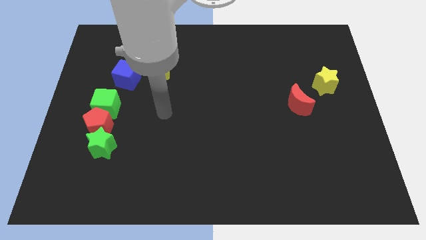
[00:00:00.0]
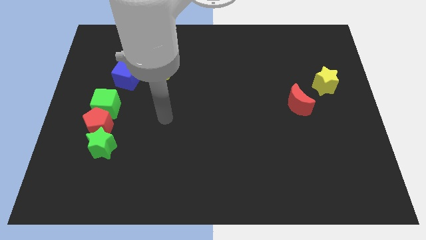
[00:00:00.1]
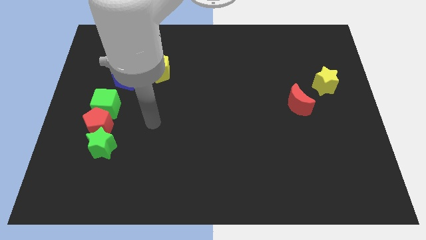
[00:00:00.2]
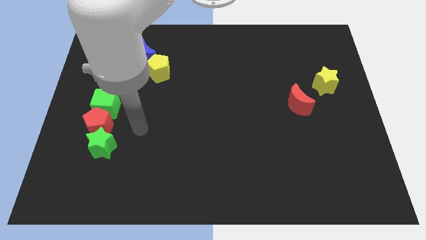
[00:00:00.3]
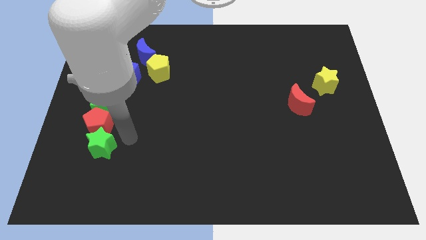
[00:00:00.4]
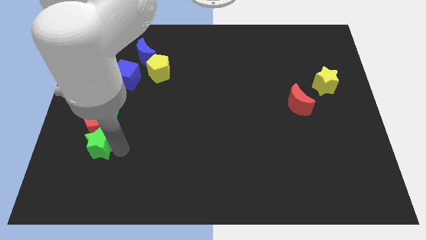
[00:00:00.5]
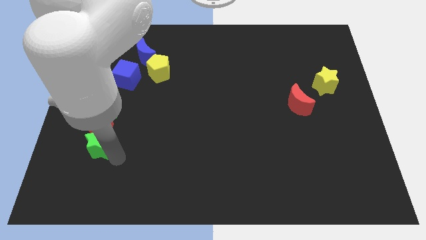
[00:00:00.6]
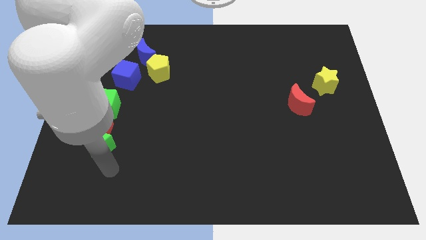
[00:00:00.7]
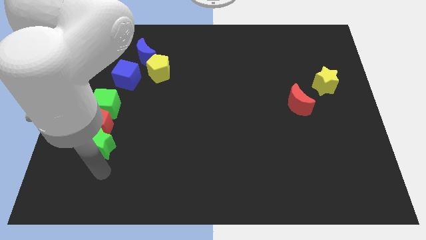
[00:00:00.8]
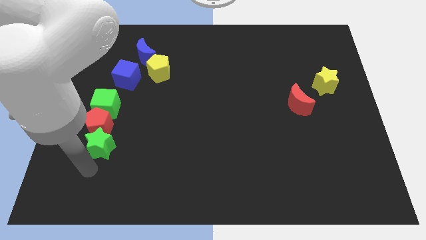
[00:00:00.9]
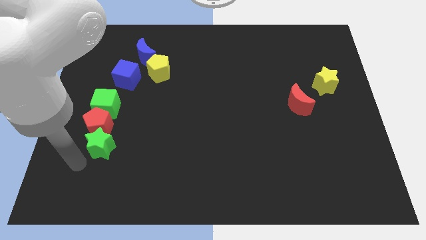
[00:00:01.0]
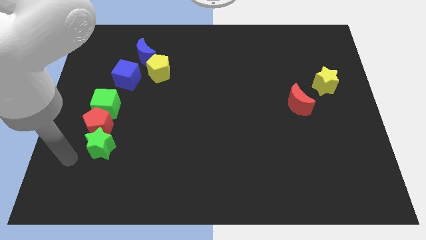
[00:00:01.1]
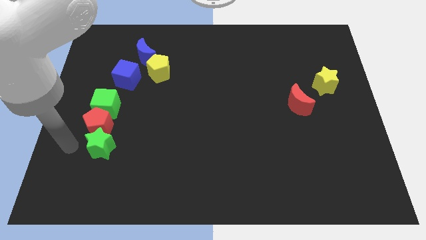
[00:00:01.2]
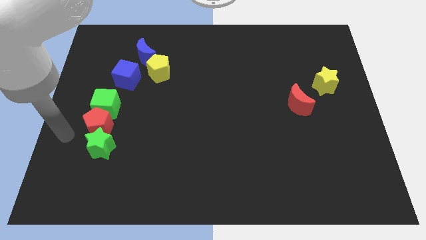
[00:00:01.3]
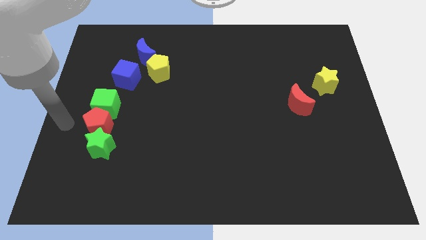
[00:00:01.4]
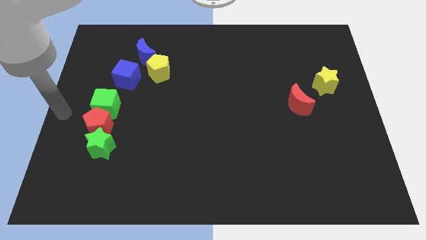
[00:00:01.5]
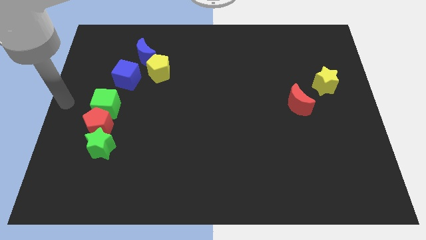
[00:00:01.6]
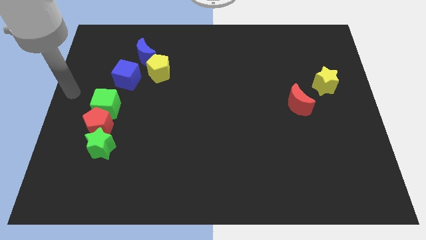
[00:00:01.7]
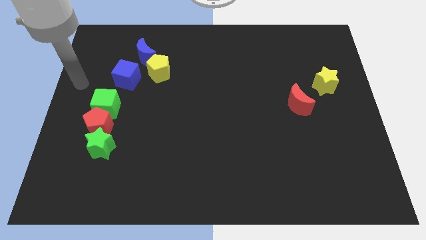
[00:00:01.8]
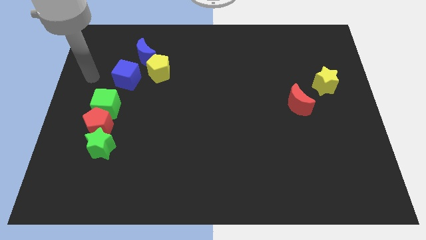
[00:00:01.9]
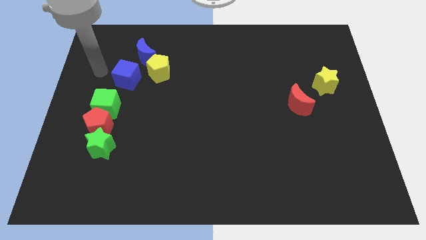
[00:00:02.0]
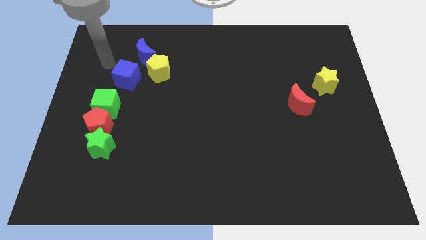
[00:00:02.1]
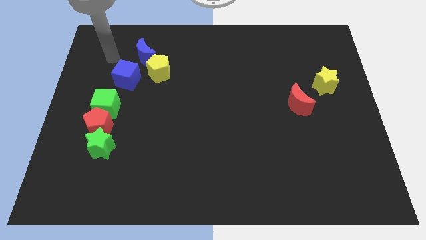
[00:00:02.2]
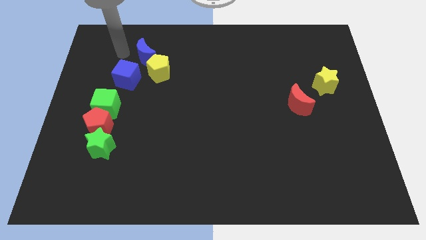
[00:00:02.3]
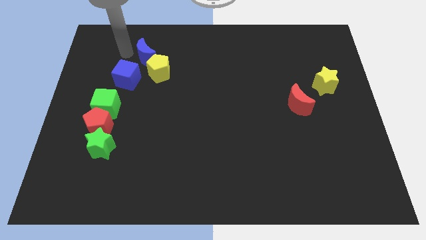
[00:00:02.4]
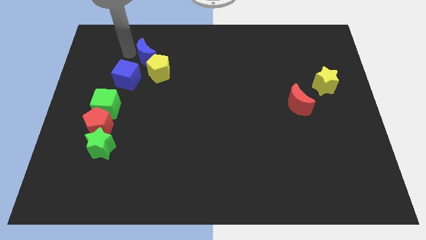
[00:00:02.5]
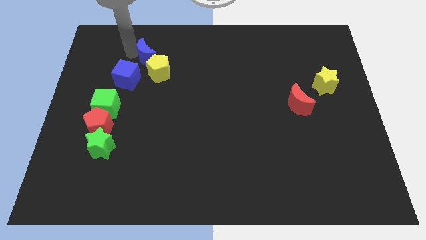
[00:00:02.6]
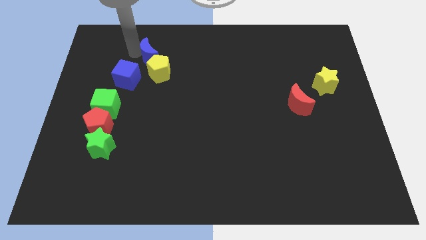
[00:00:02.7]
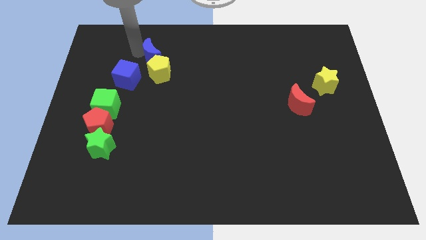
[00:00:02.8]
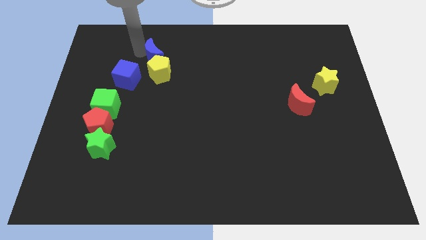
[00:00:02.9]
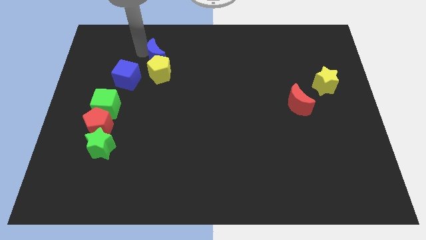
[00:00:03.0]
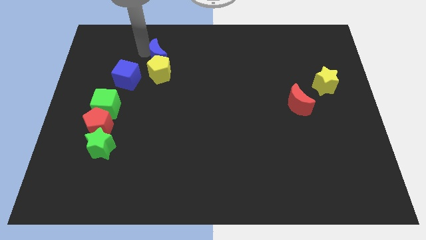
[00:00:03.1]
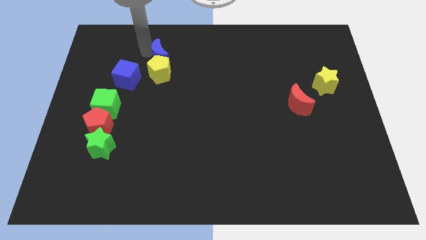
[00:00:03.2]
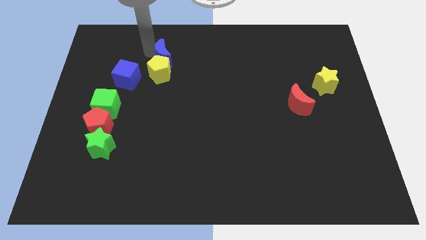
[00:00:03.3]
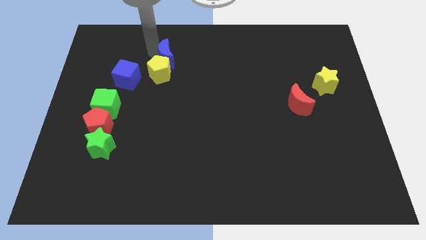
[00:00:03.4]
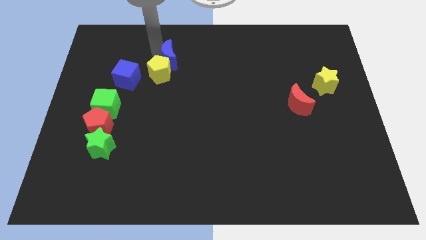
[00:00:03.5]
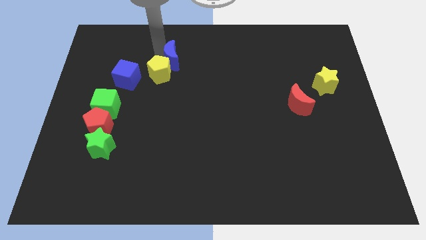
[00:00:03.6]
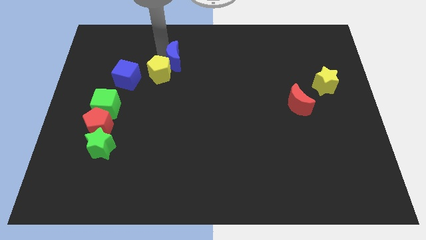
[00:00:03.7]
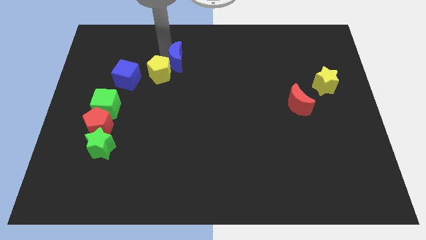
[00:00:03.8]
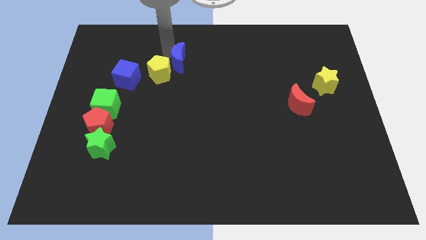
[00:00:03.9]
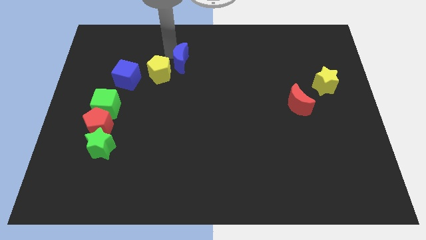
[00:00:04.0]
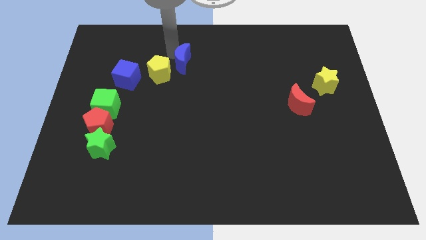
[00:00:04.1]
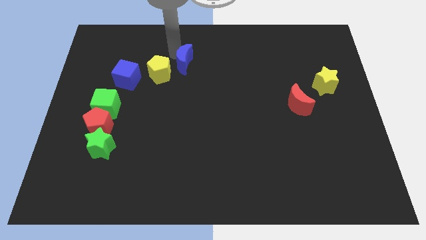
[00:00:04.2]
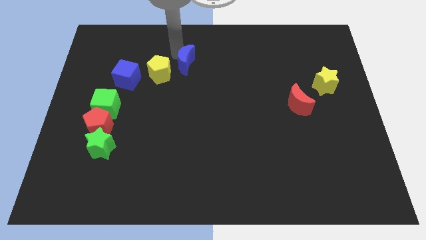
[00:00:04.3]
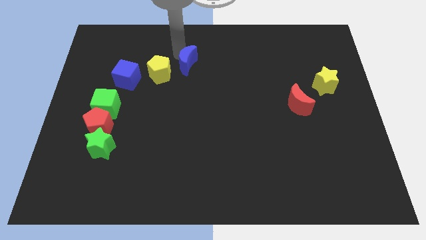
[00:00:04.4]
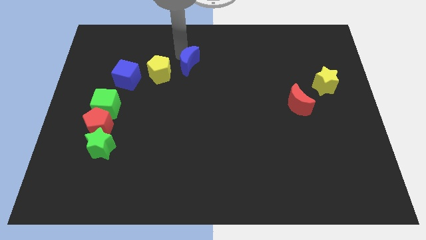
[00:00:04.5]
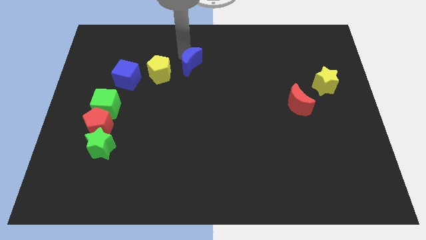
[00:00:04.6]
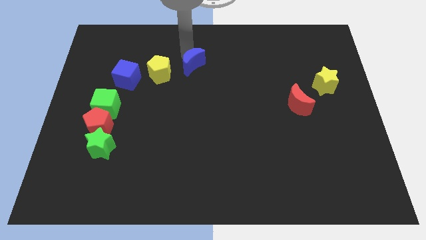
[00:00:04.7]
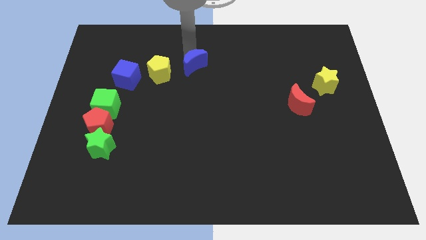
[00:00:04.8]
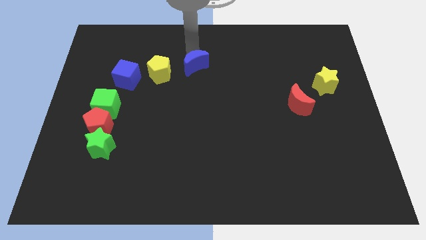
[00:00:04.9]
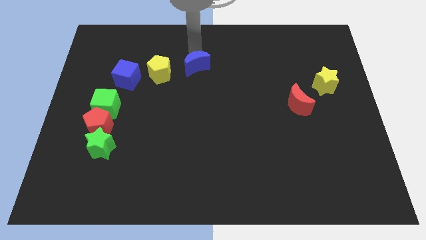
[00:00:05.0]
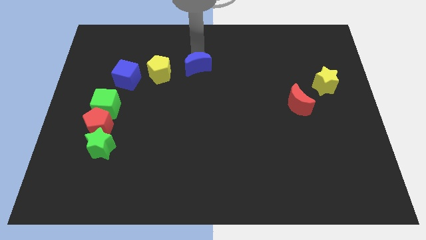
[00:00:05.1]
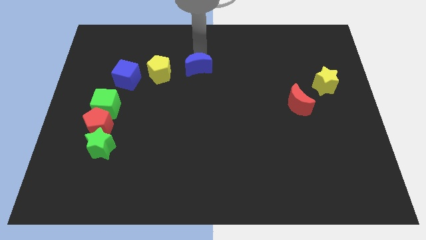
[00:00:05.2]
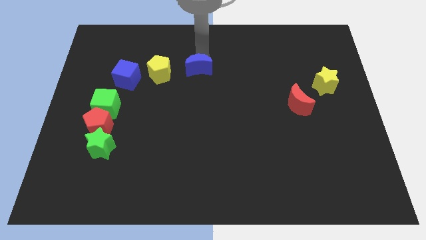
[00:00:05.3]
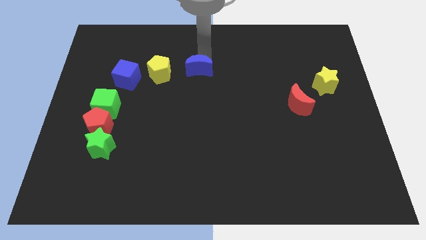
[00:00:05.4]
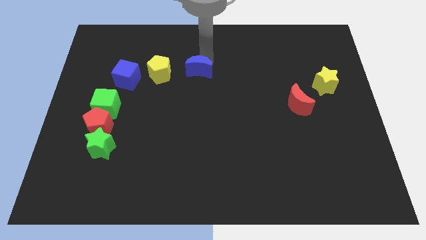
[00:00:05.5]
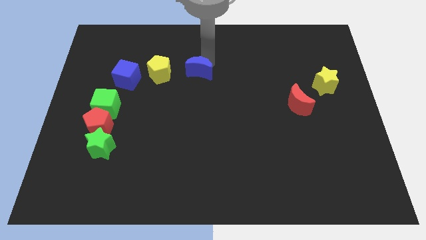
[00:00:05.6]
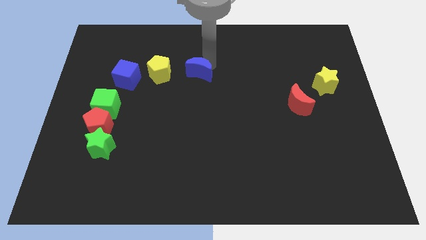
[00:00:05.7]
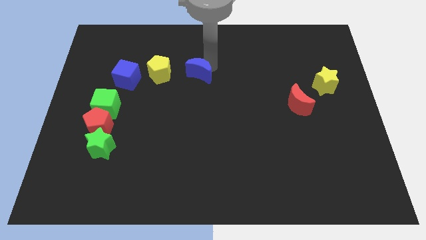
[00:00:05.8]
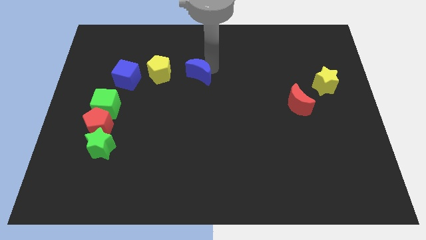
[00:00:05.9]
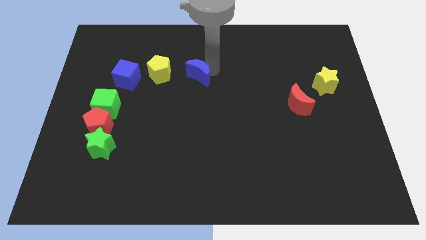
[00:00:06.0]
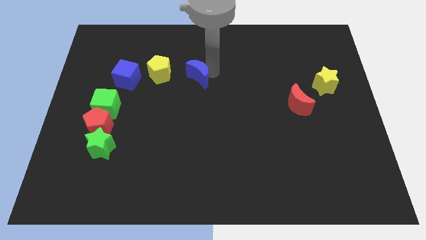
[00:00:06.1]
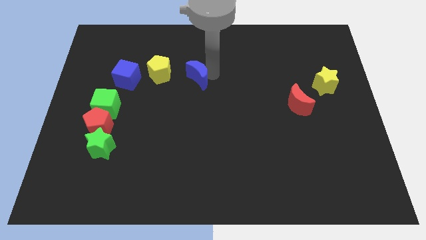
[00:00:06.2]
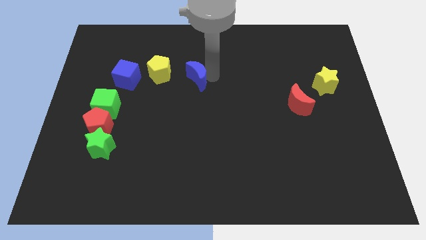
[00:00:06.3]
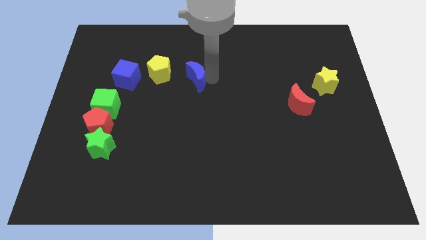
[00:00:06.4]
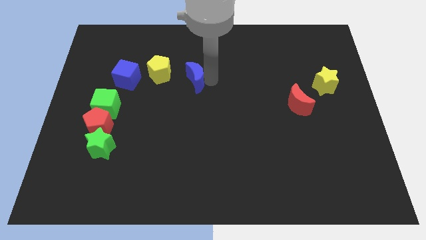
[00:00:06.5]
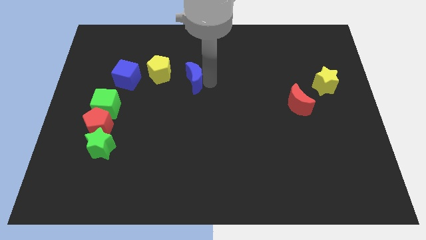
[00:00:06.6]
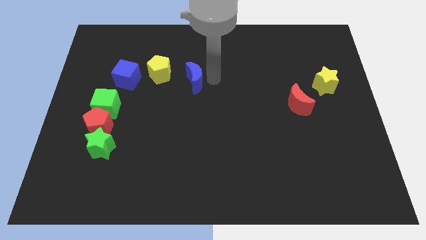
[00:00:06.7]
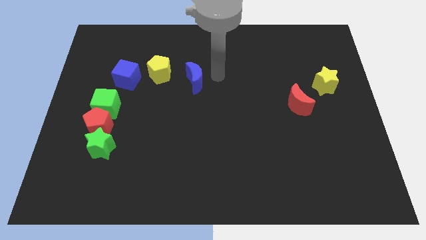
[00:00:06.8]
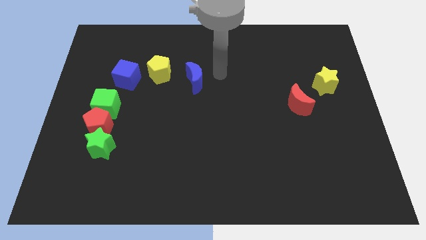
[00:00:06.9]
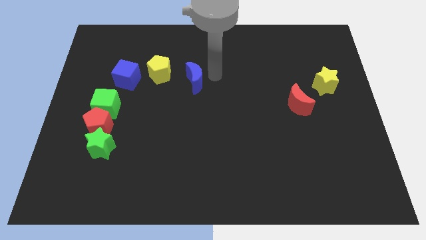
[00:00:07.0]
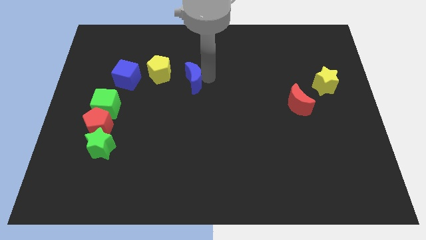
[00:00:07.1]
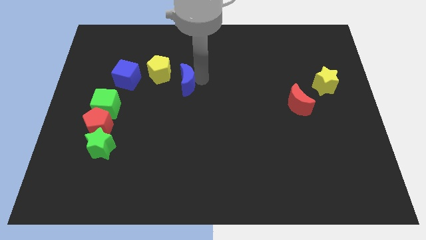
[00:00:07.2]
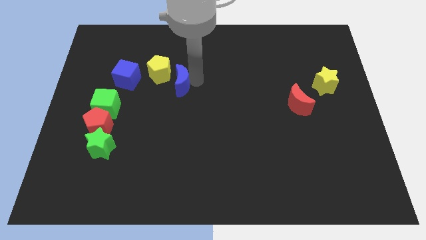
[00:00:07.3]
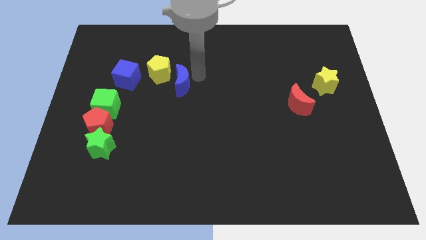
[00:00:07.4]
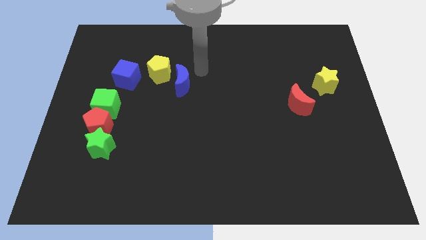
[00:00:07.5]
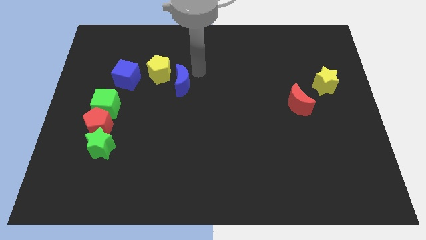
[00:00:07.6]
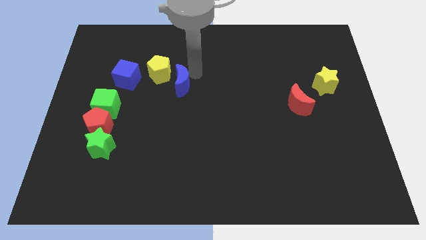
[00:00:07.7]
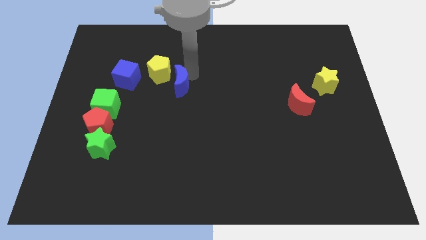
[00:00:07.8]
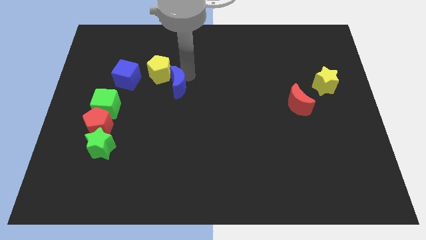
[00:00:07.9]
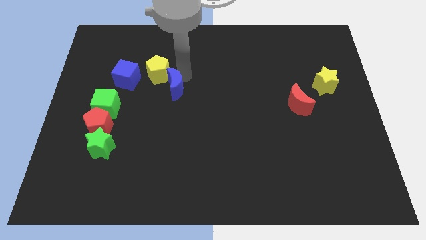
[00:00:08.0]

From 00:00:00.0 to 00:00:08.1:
slide the blue moon to the bottom of the yellow pentagon
